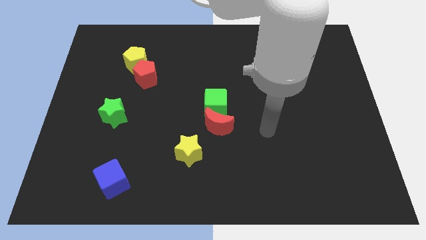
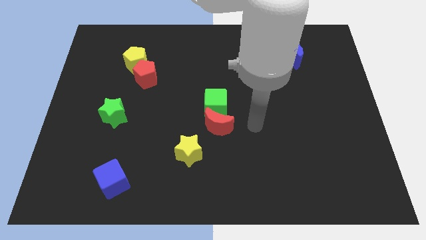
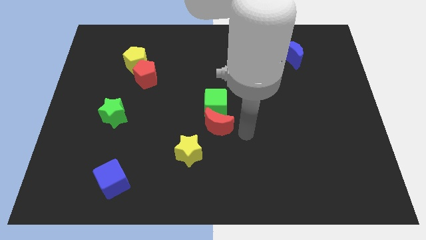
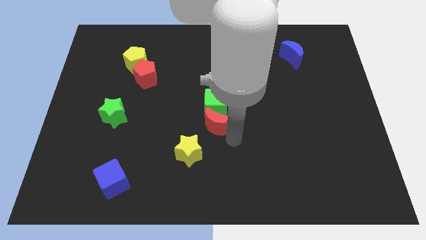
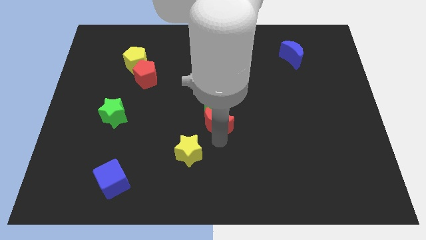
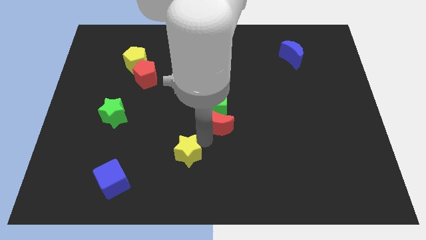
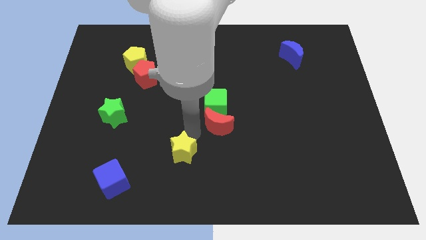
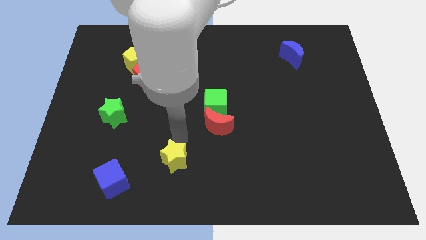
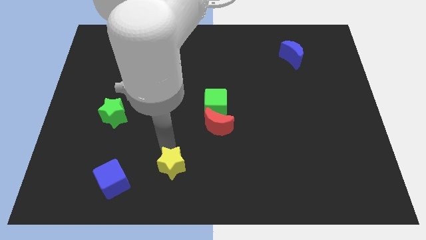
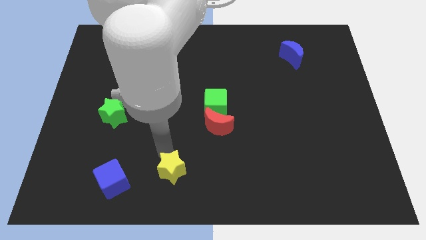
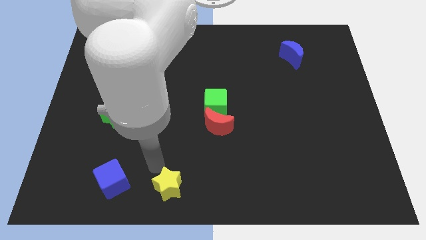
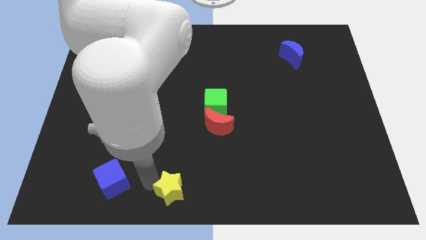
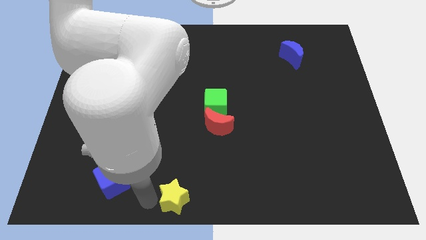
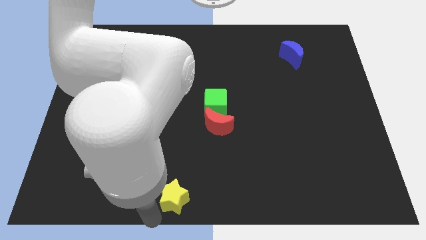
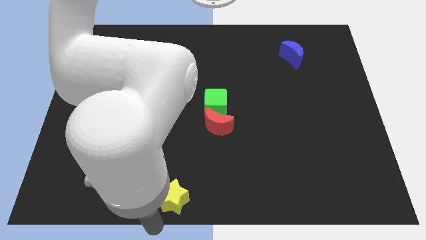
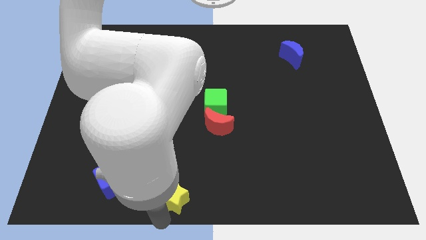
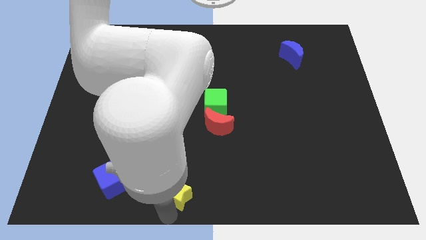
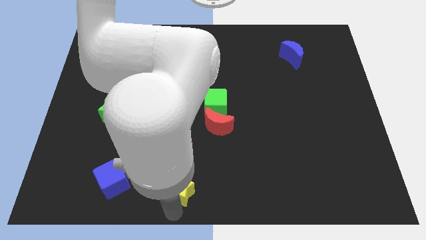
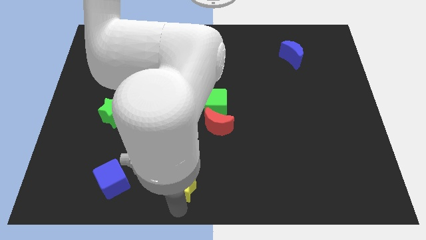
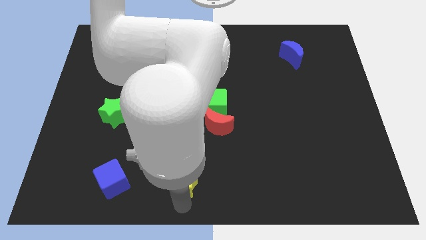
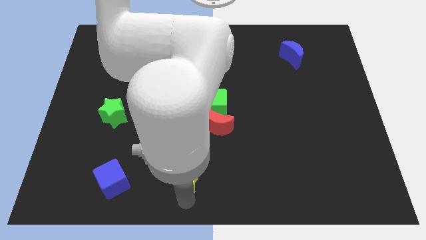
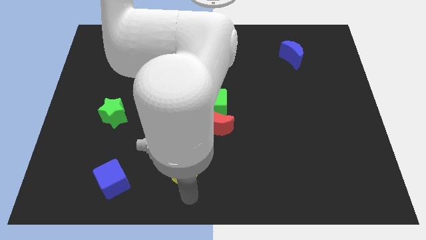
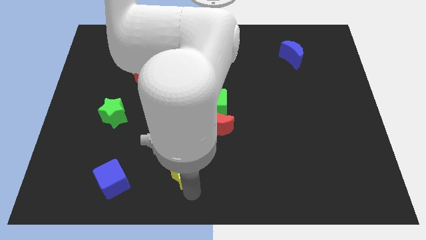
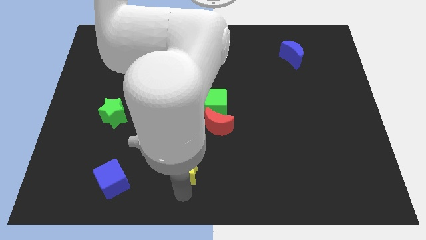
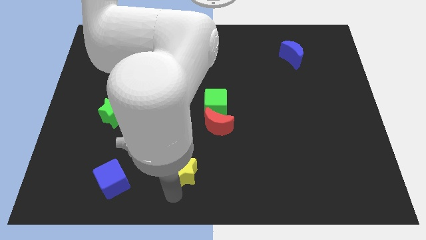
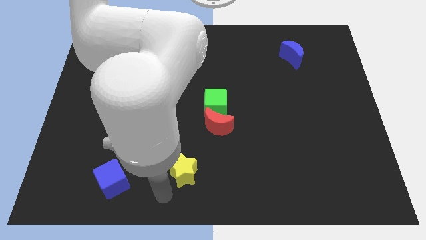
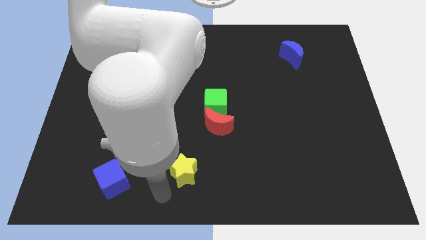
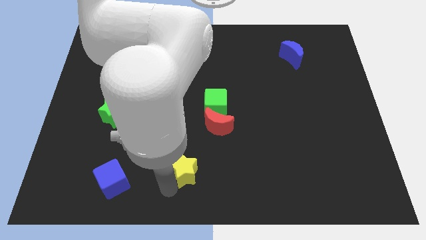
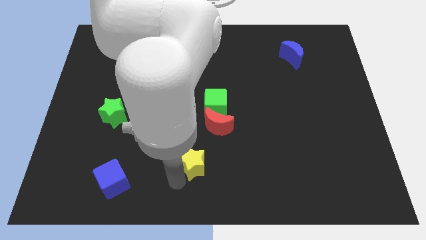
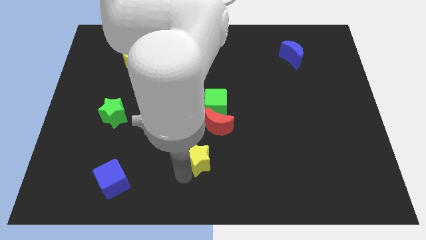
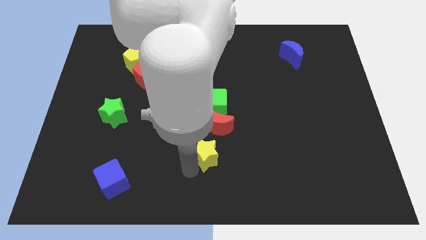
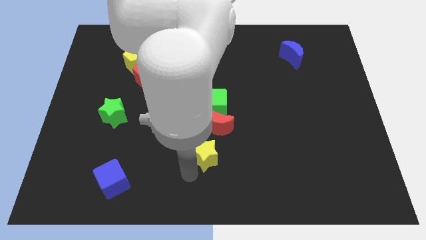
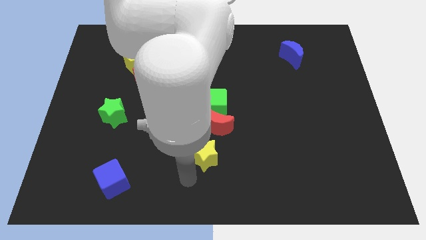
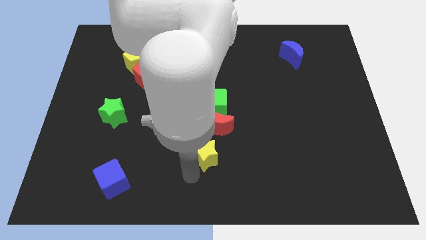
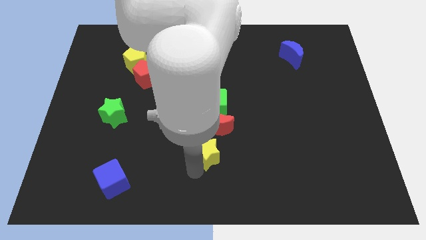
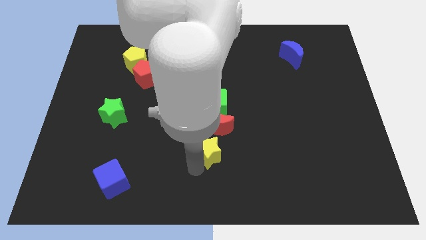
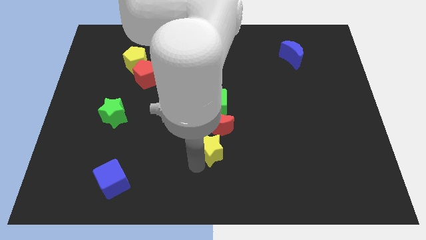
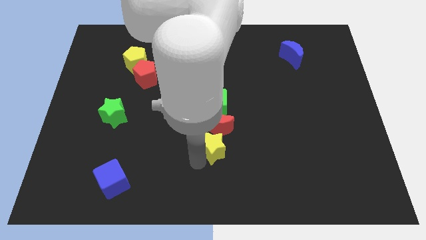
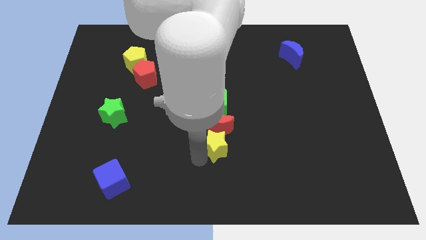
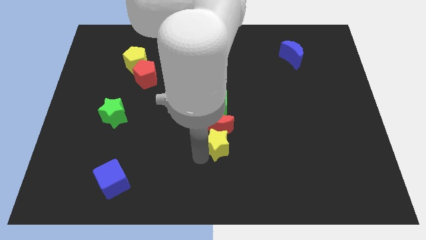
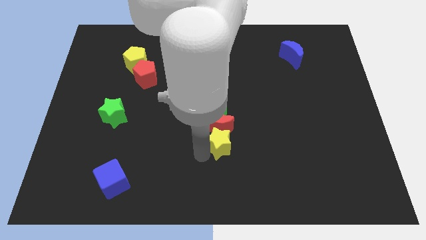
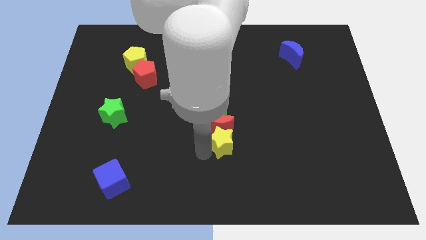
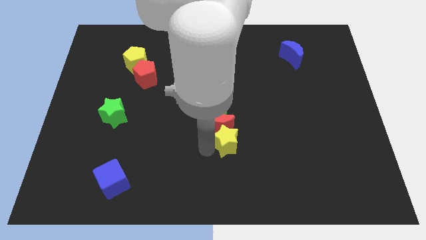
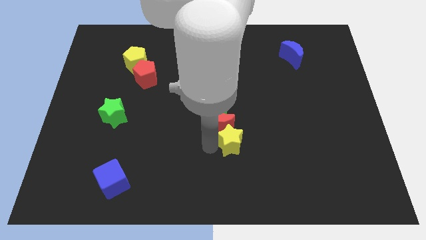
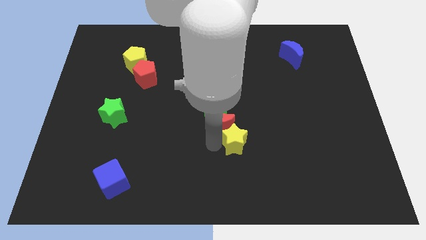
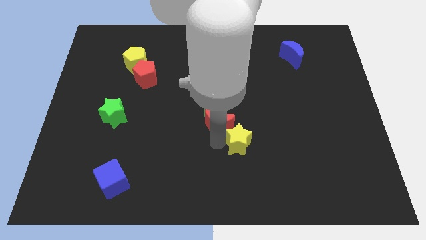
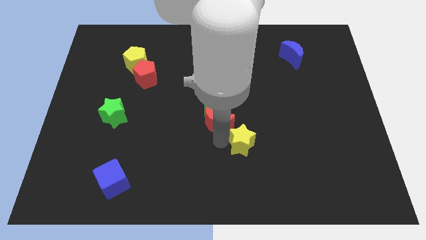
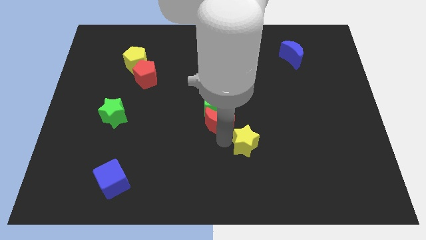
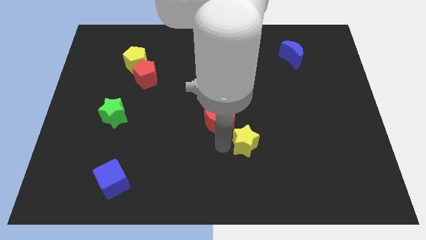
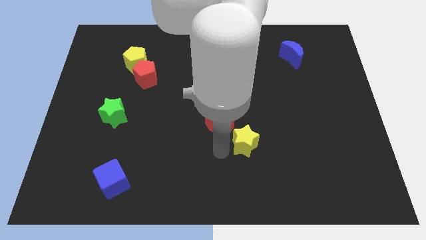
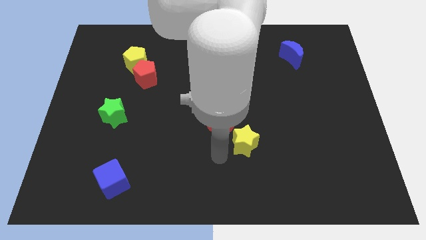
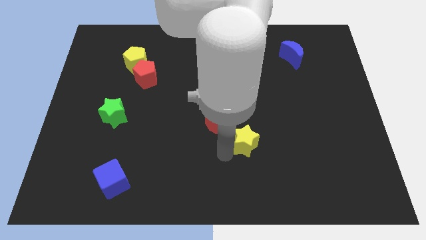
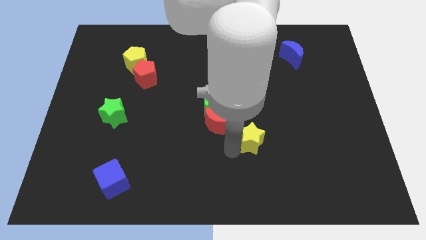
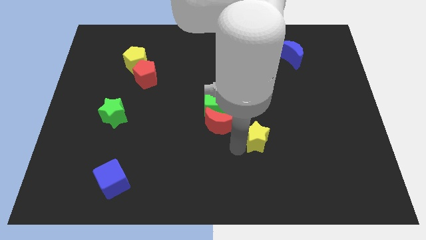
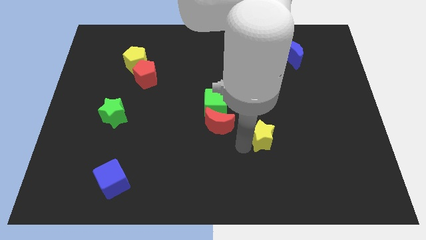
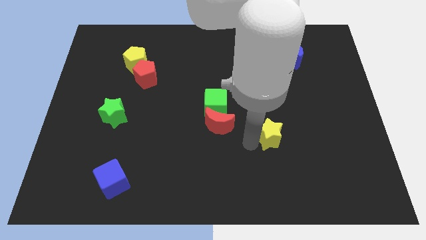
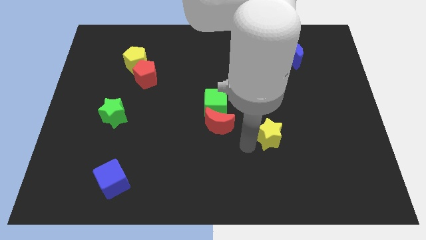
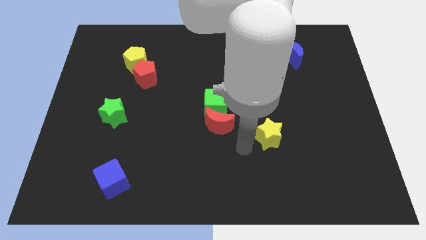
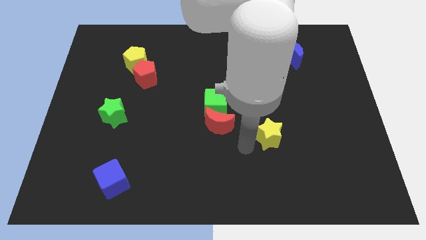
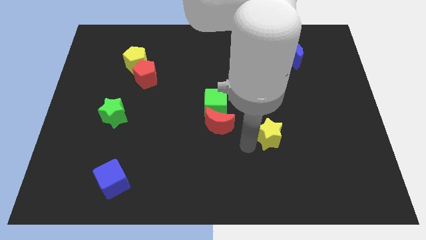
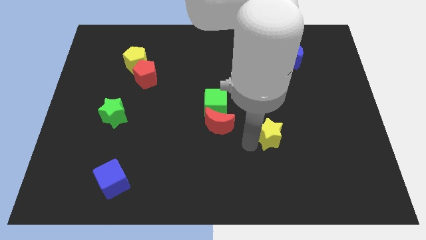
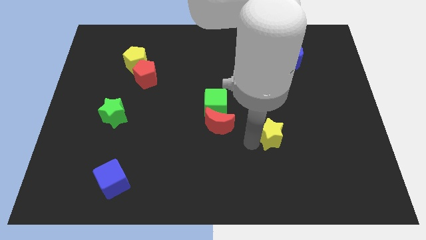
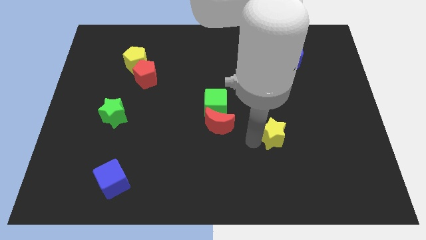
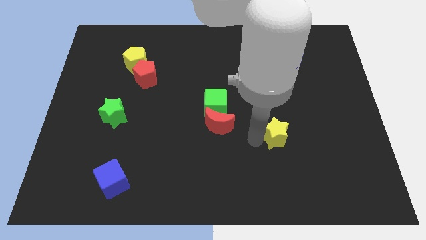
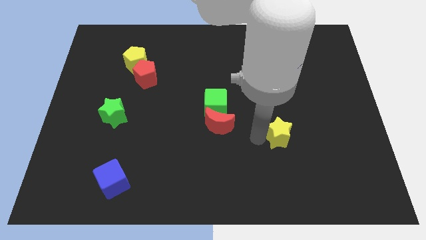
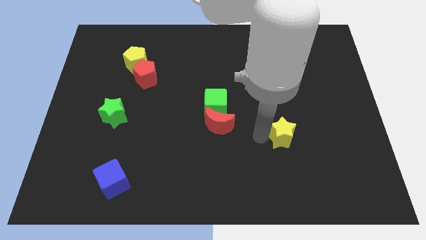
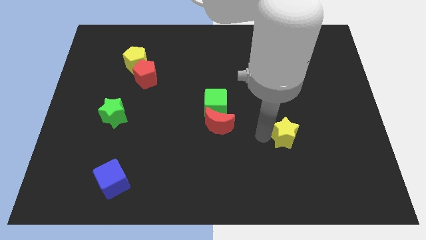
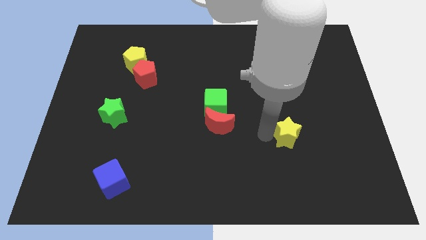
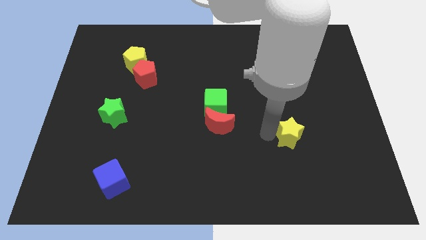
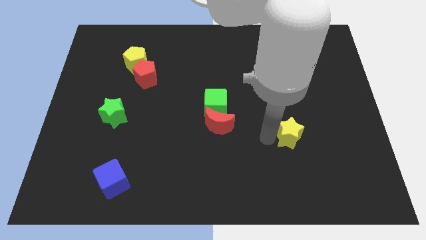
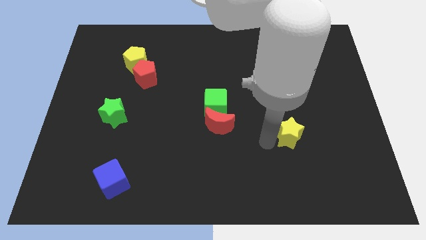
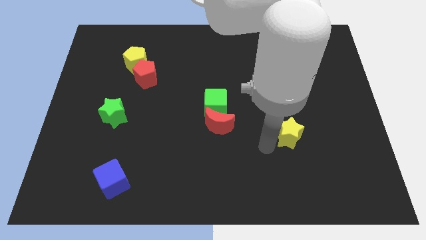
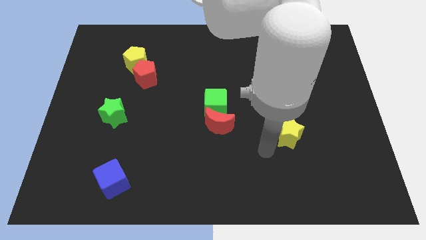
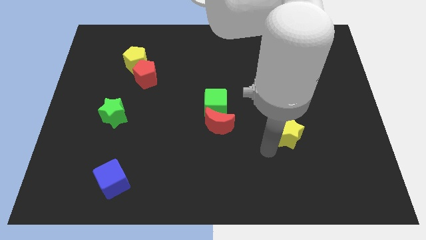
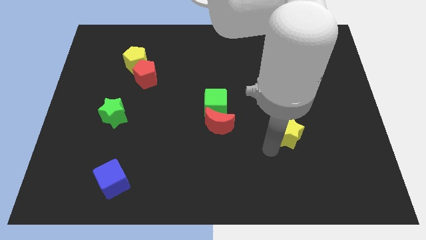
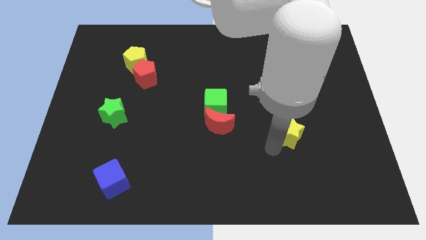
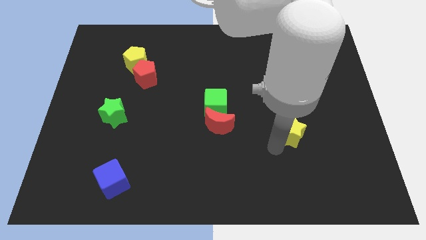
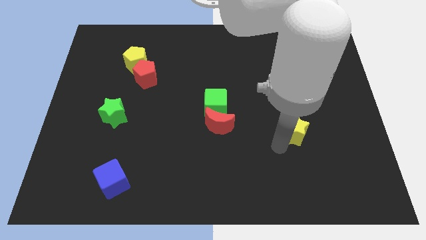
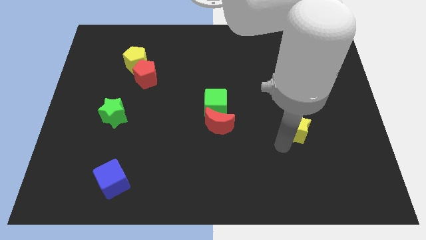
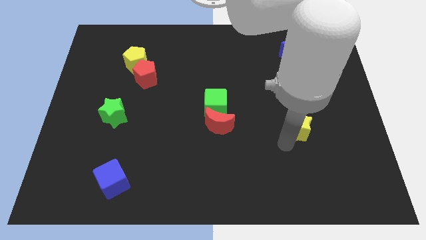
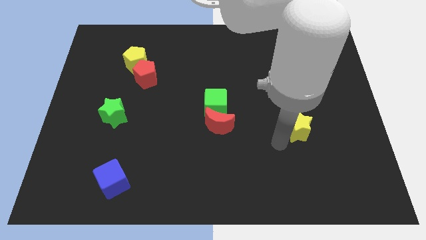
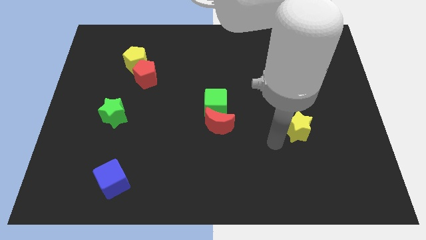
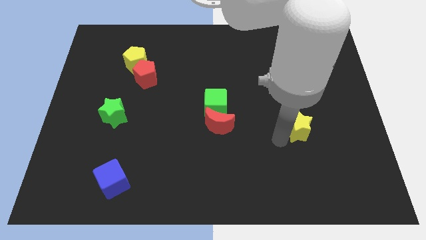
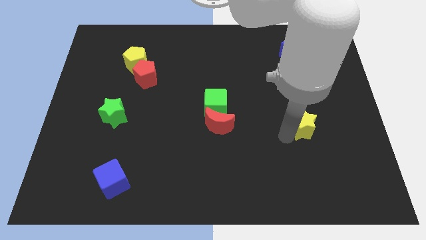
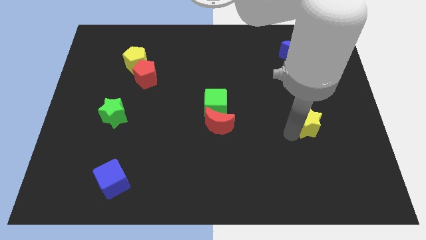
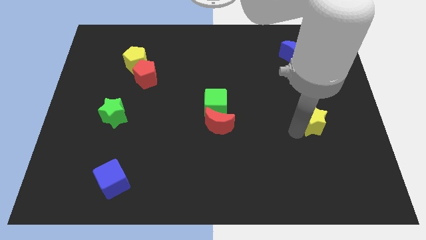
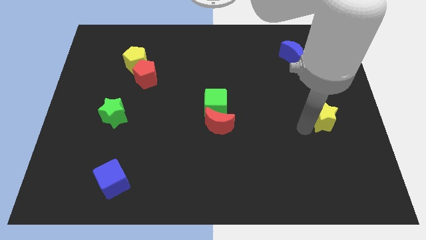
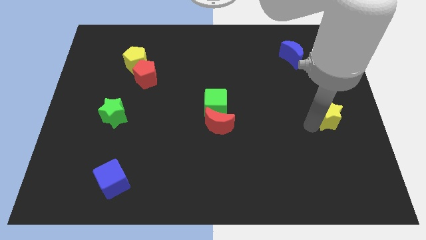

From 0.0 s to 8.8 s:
slide the yellow star to the center right
